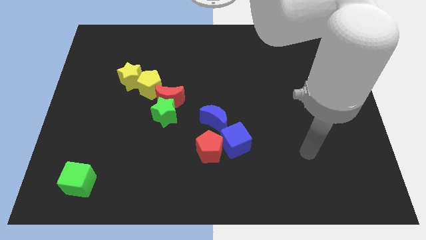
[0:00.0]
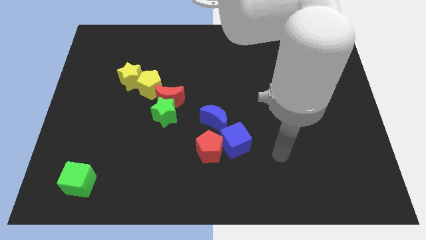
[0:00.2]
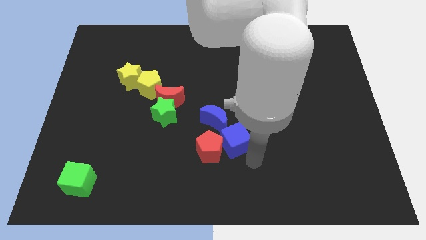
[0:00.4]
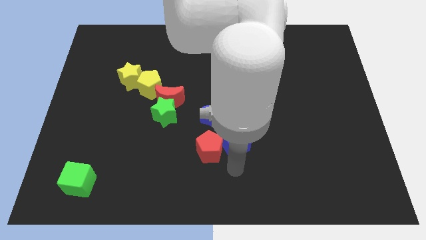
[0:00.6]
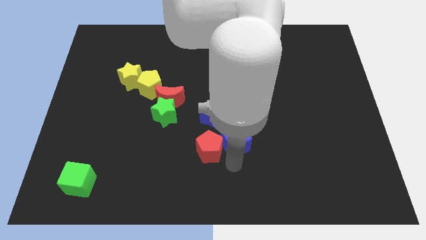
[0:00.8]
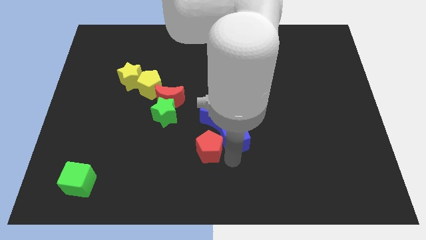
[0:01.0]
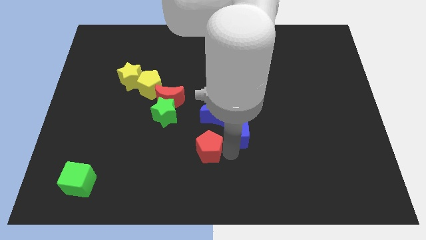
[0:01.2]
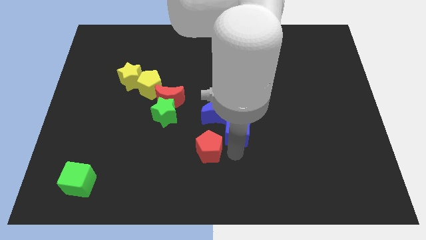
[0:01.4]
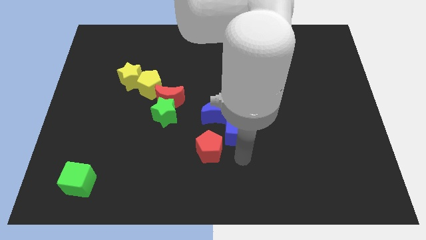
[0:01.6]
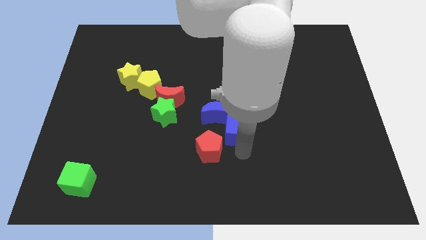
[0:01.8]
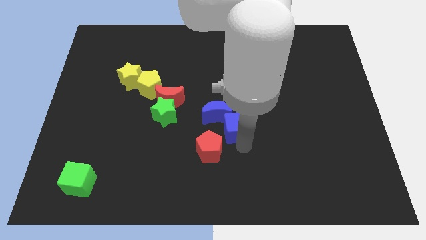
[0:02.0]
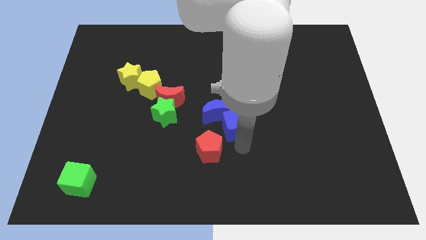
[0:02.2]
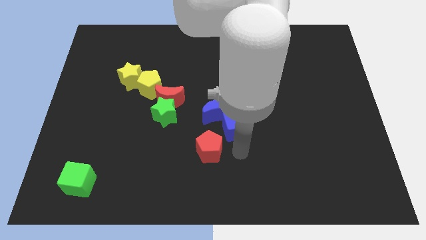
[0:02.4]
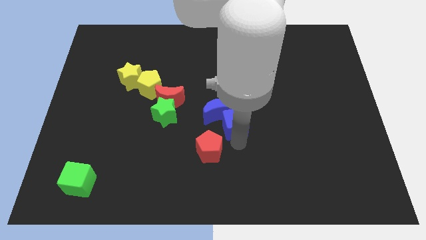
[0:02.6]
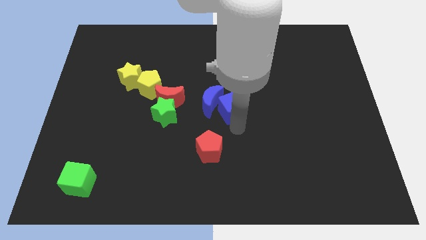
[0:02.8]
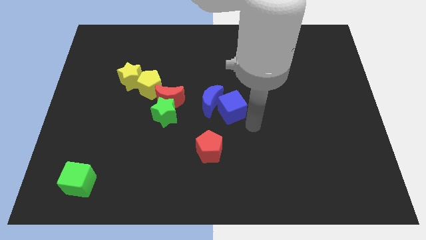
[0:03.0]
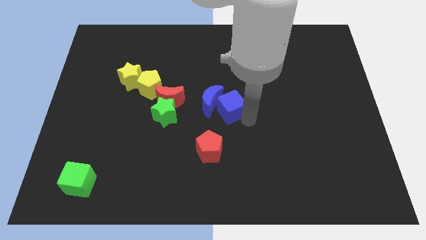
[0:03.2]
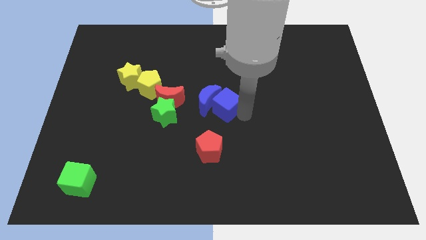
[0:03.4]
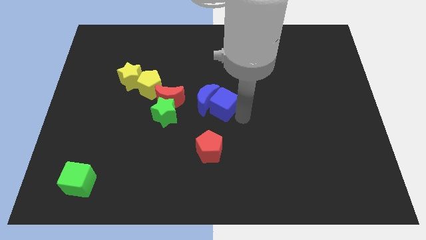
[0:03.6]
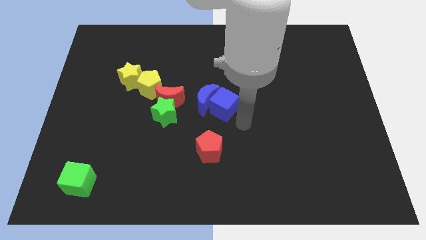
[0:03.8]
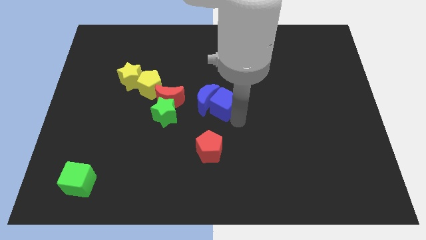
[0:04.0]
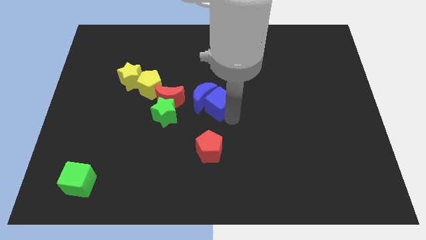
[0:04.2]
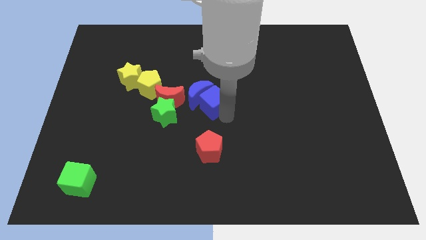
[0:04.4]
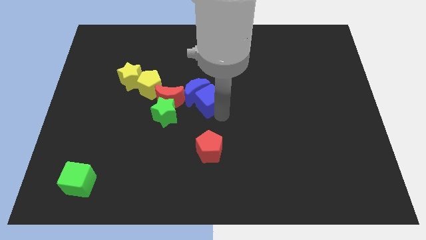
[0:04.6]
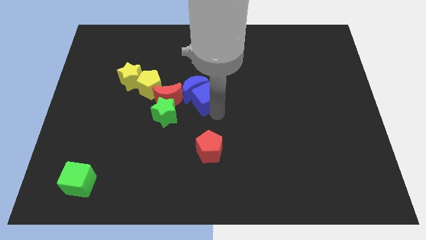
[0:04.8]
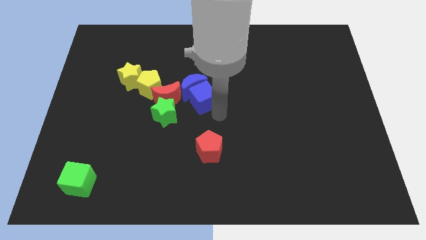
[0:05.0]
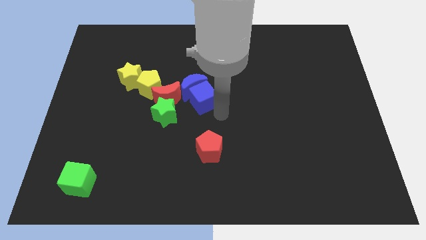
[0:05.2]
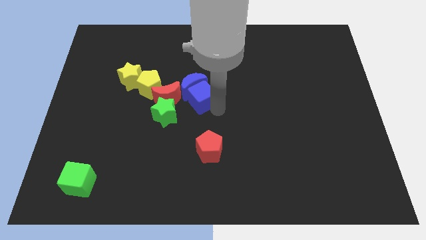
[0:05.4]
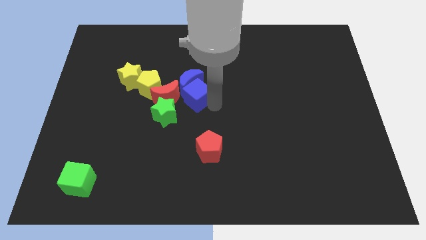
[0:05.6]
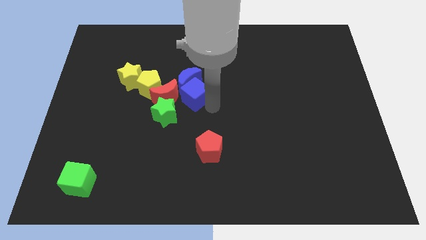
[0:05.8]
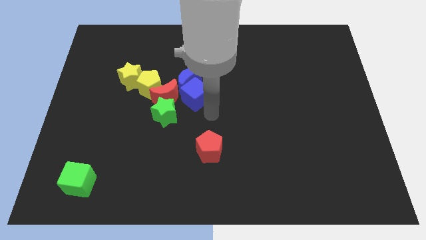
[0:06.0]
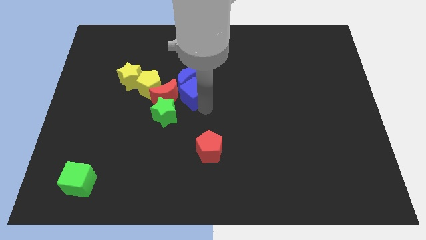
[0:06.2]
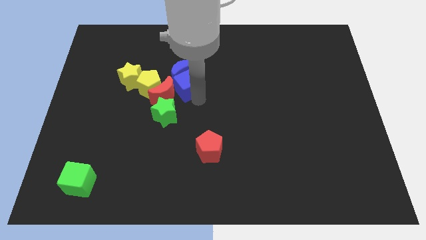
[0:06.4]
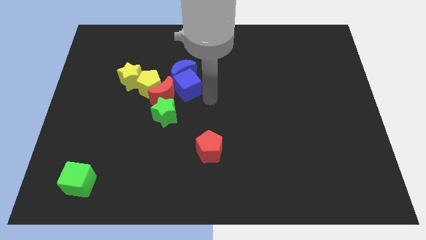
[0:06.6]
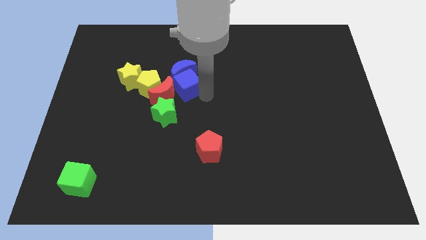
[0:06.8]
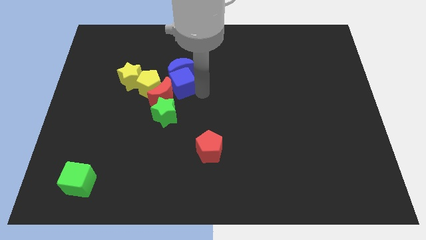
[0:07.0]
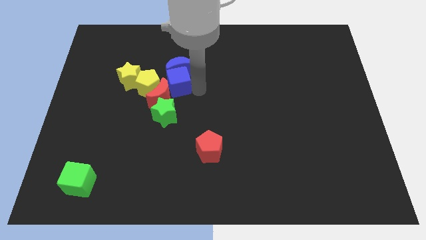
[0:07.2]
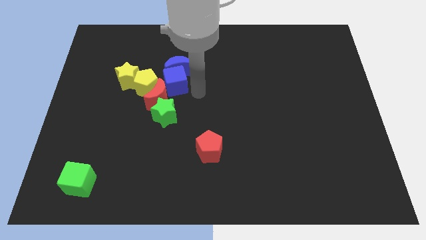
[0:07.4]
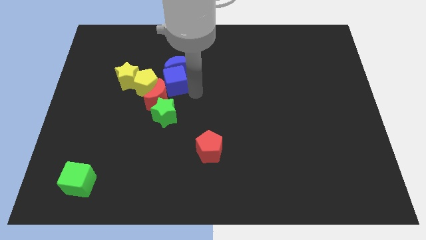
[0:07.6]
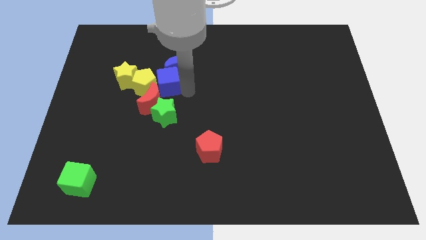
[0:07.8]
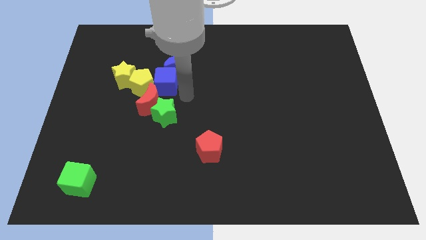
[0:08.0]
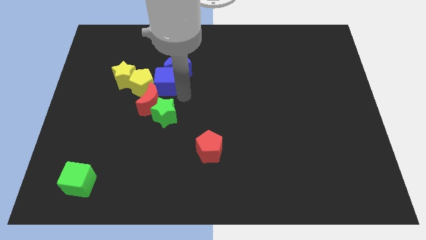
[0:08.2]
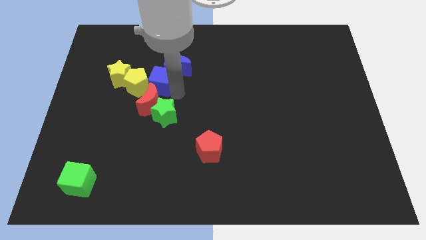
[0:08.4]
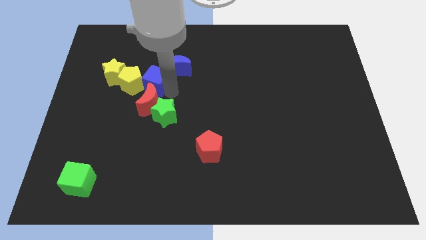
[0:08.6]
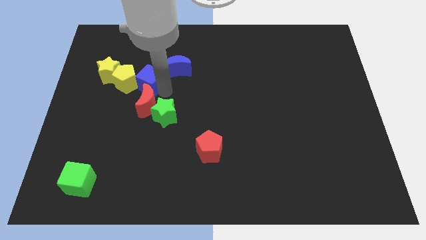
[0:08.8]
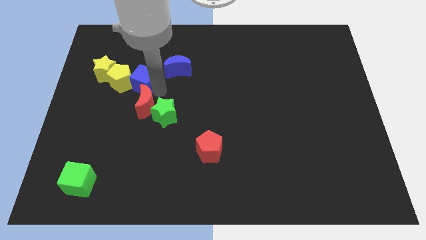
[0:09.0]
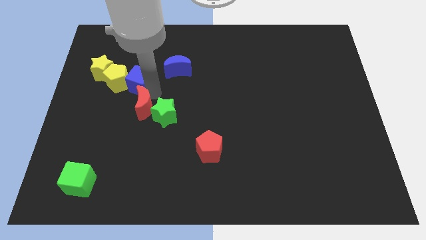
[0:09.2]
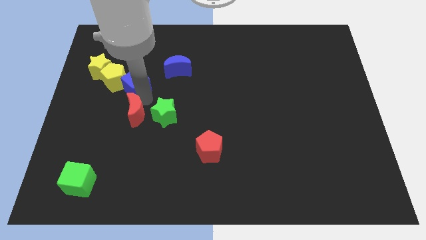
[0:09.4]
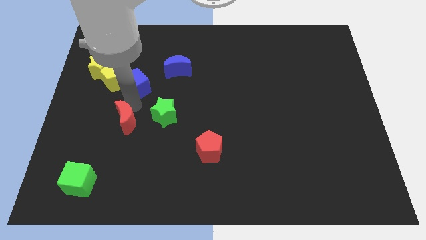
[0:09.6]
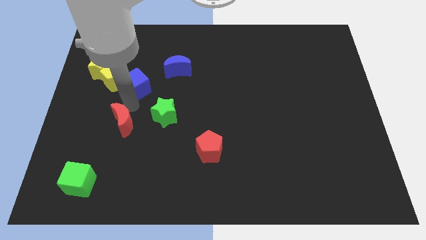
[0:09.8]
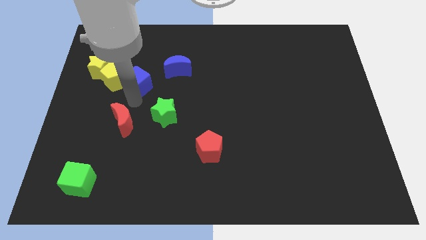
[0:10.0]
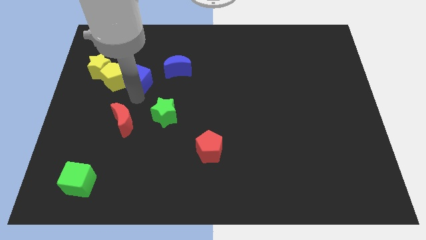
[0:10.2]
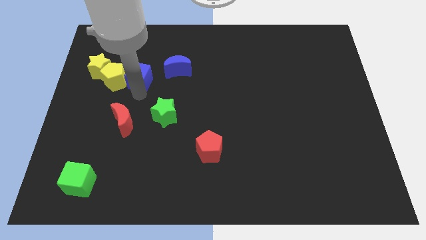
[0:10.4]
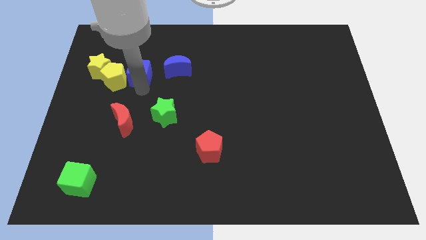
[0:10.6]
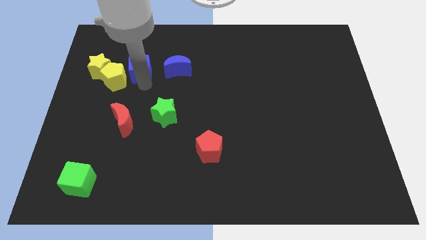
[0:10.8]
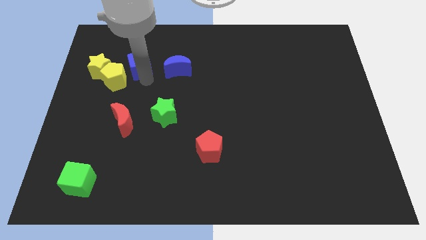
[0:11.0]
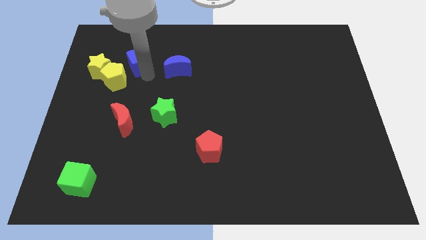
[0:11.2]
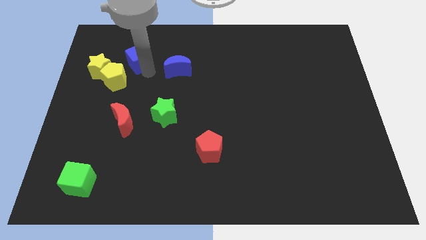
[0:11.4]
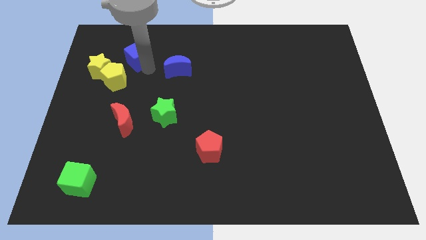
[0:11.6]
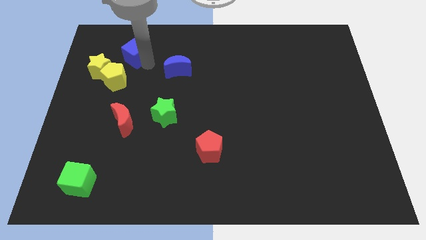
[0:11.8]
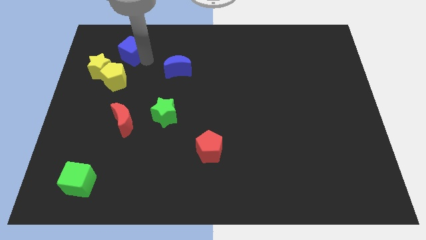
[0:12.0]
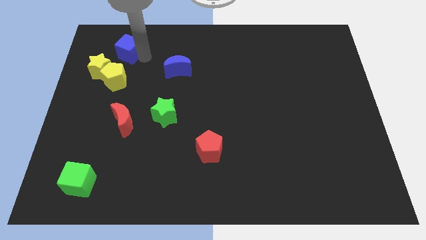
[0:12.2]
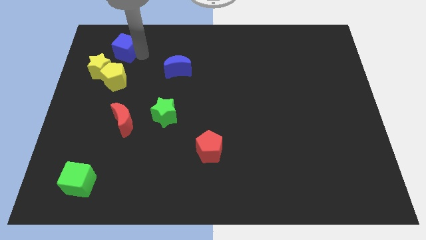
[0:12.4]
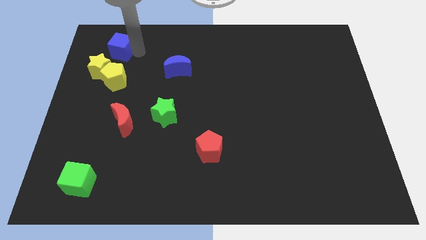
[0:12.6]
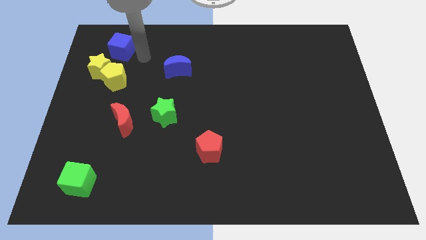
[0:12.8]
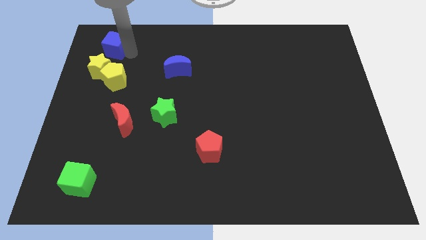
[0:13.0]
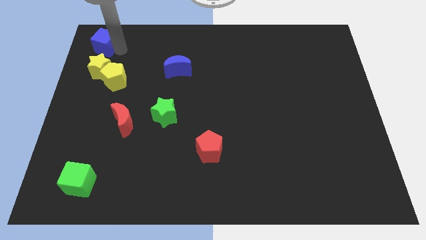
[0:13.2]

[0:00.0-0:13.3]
push the blue cube to the top left corner
